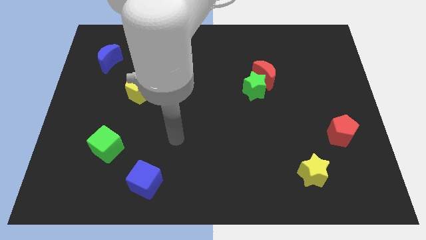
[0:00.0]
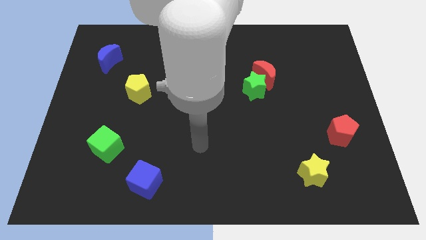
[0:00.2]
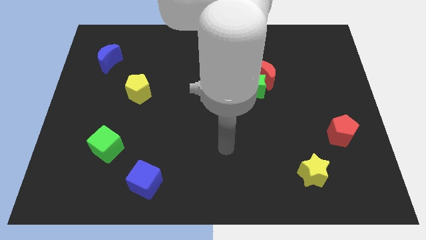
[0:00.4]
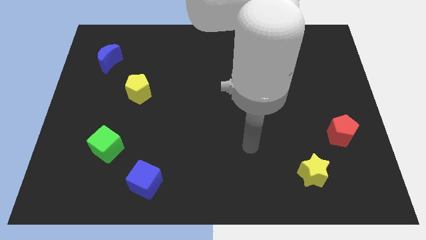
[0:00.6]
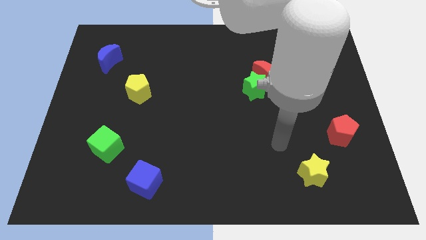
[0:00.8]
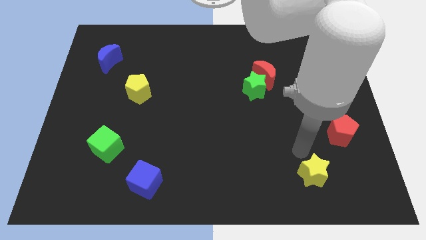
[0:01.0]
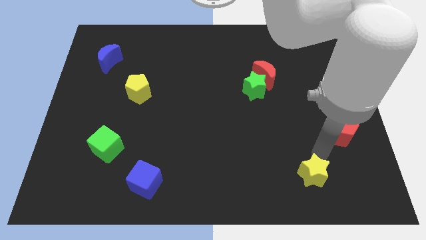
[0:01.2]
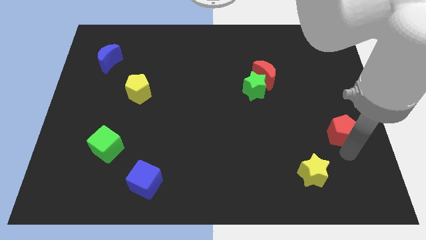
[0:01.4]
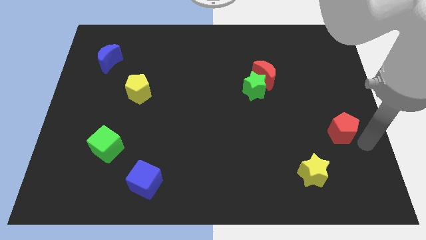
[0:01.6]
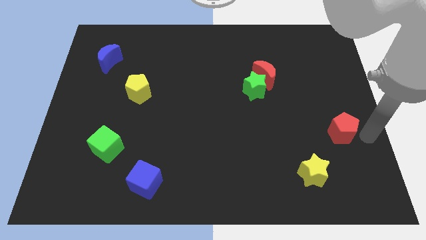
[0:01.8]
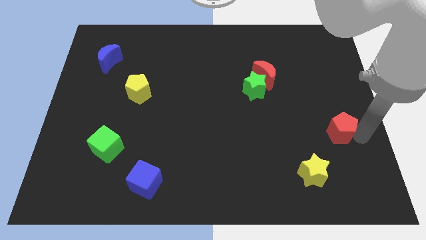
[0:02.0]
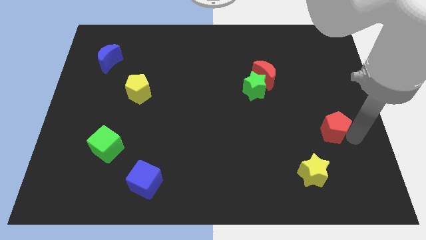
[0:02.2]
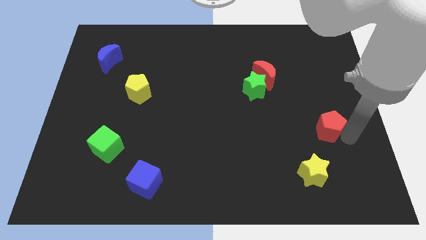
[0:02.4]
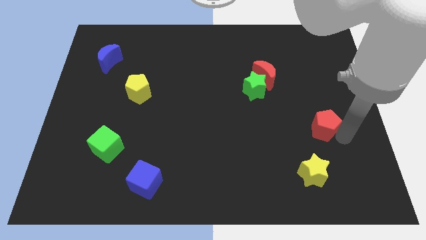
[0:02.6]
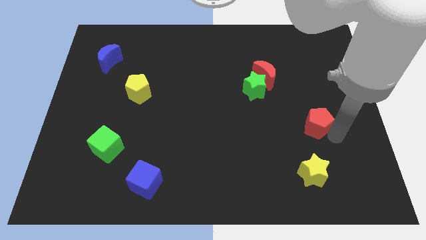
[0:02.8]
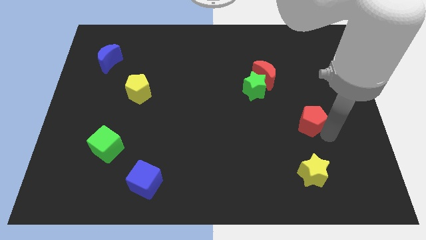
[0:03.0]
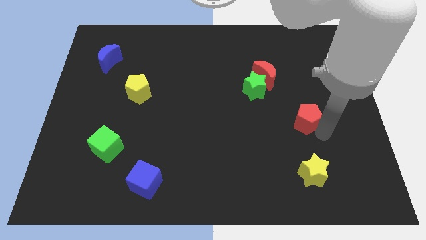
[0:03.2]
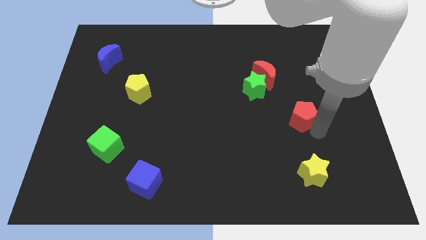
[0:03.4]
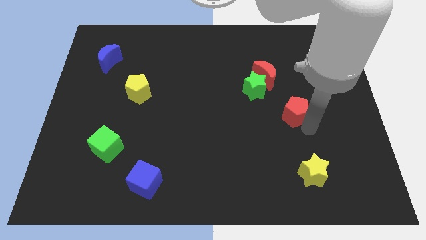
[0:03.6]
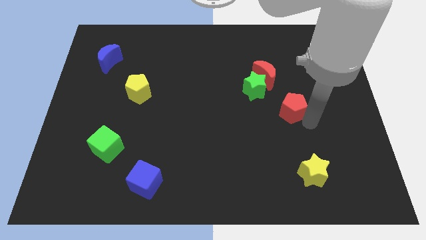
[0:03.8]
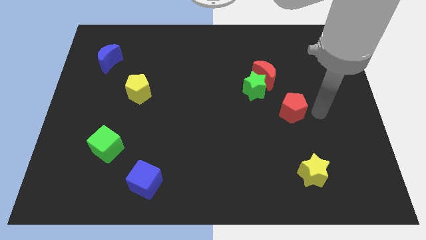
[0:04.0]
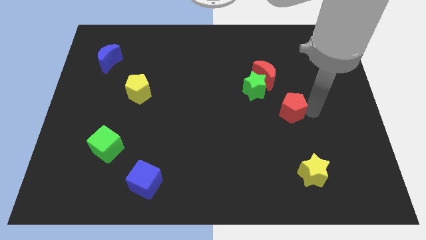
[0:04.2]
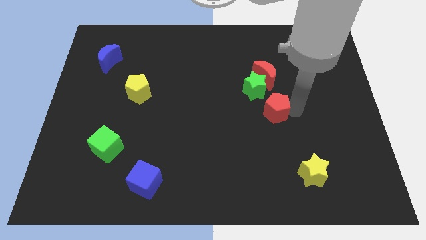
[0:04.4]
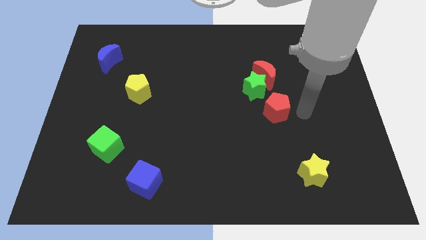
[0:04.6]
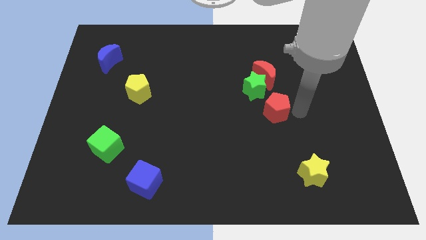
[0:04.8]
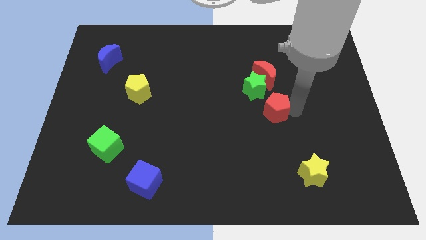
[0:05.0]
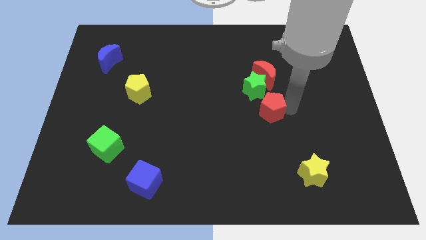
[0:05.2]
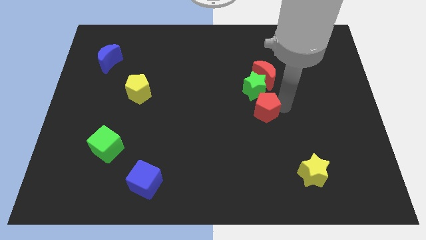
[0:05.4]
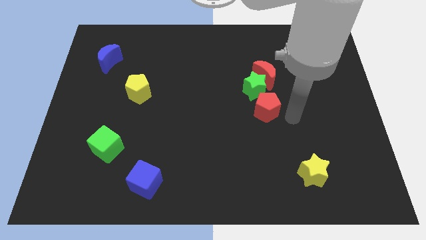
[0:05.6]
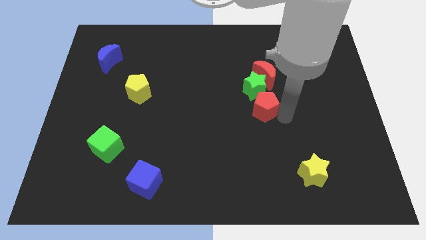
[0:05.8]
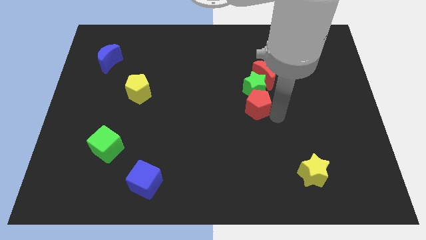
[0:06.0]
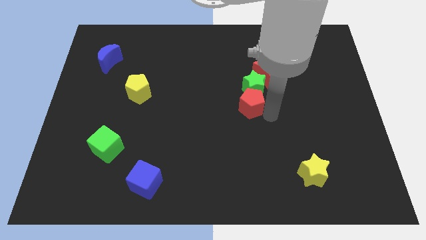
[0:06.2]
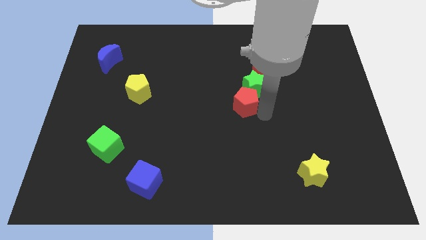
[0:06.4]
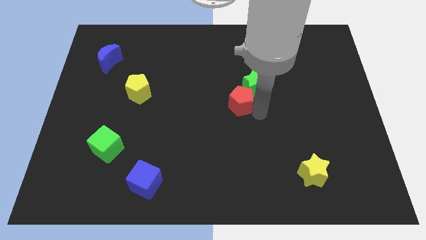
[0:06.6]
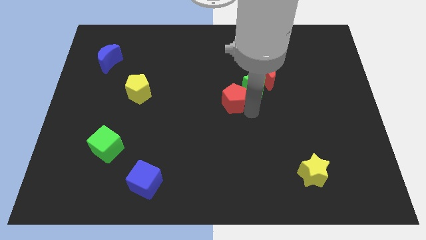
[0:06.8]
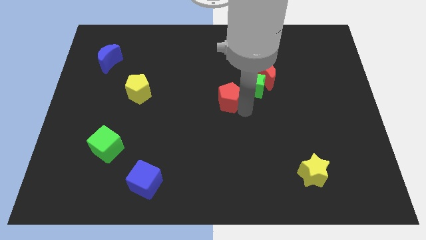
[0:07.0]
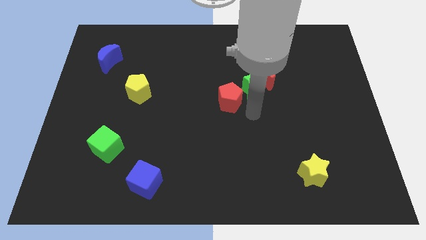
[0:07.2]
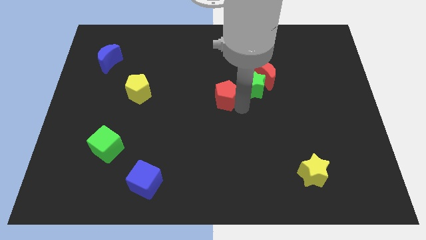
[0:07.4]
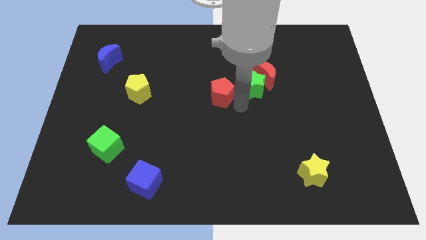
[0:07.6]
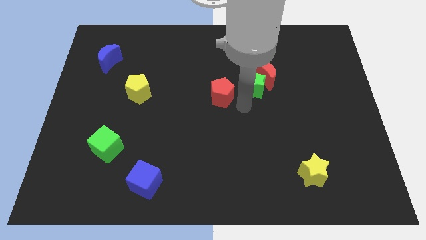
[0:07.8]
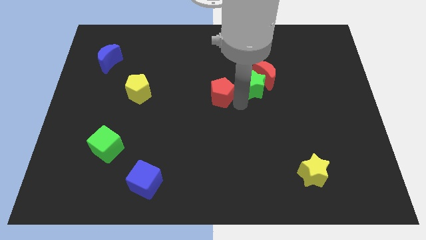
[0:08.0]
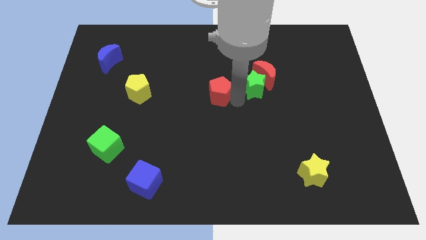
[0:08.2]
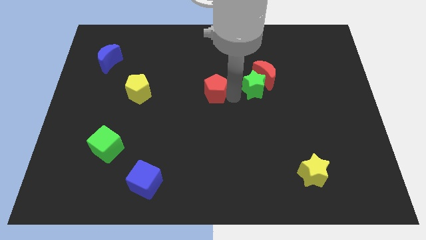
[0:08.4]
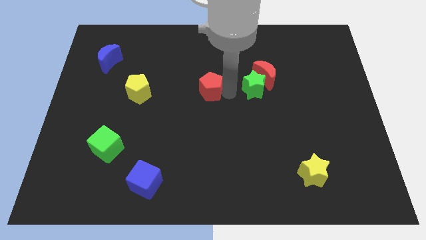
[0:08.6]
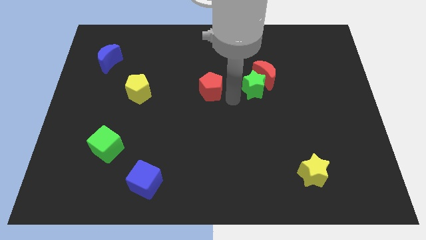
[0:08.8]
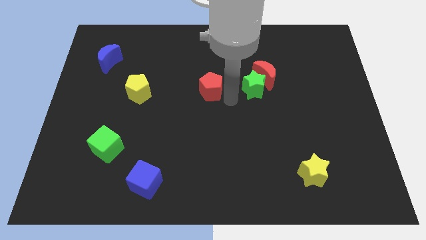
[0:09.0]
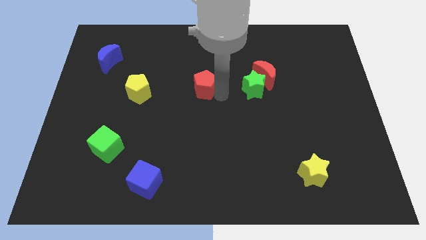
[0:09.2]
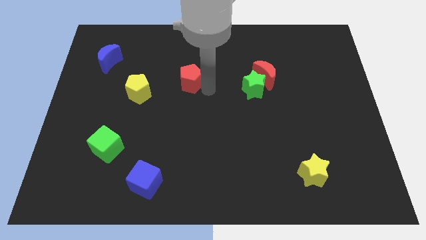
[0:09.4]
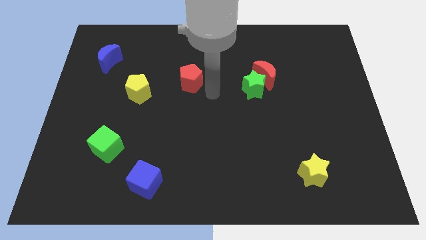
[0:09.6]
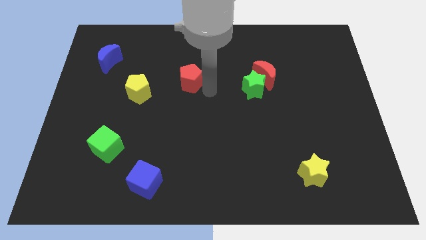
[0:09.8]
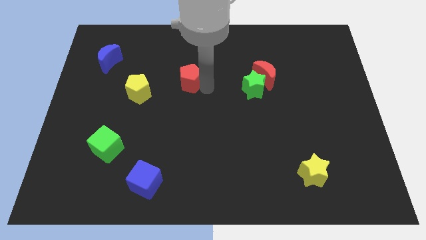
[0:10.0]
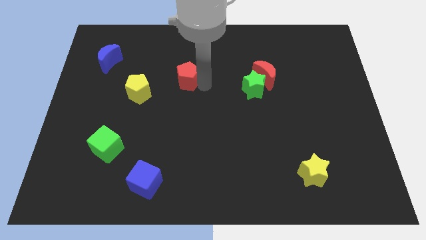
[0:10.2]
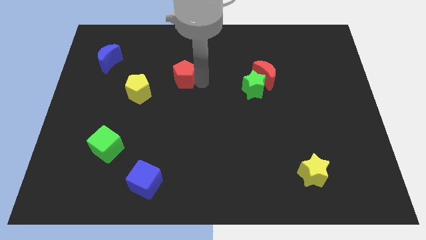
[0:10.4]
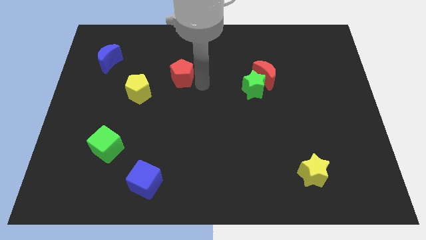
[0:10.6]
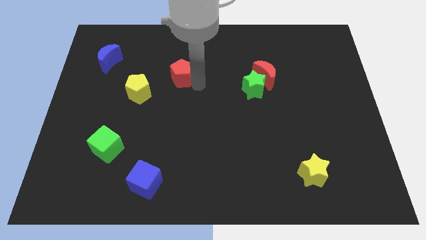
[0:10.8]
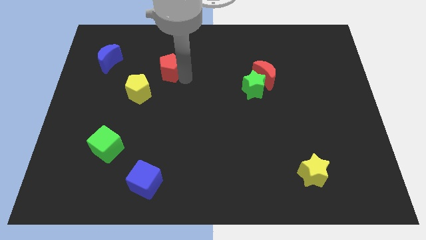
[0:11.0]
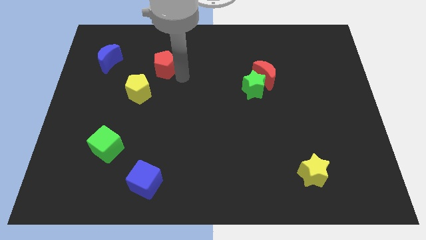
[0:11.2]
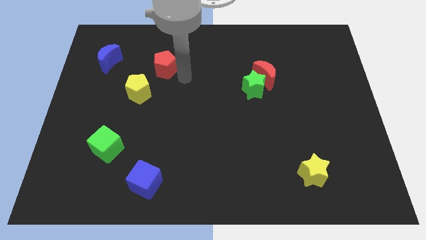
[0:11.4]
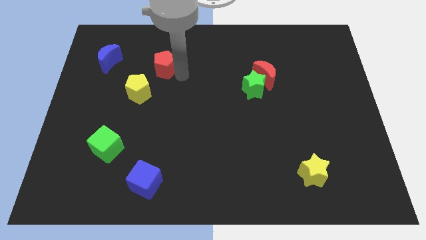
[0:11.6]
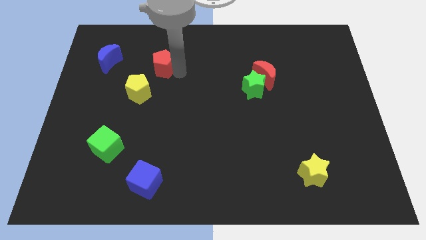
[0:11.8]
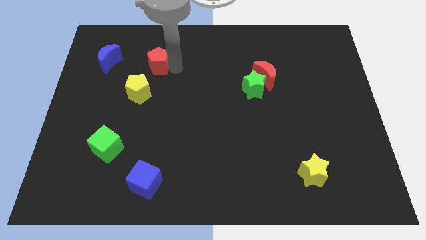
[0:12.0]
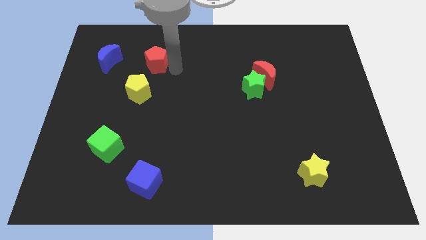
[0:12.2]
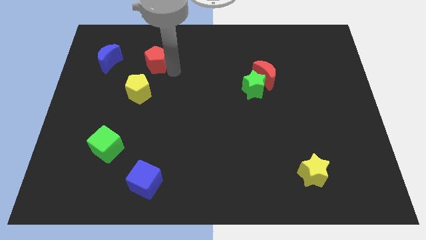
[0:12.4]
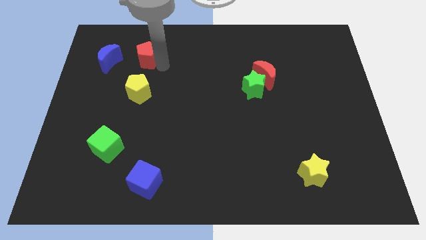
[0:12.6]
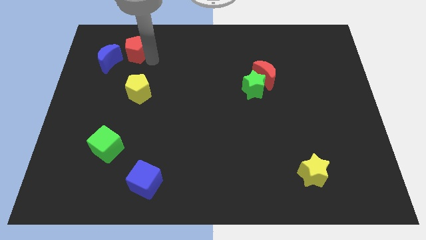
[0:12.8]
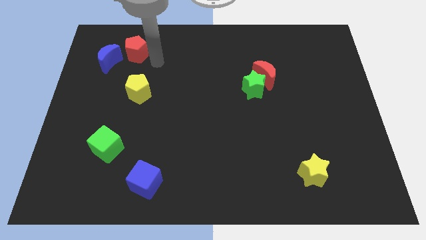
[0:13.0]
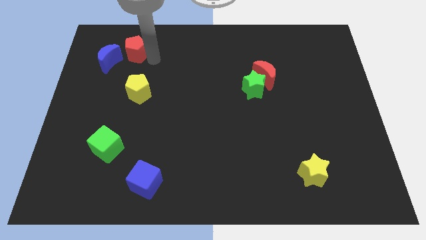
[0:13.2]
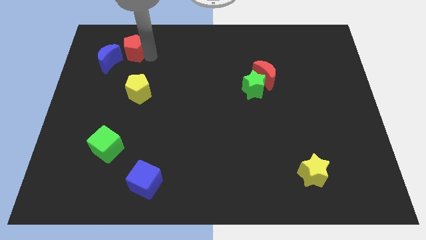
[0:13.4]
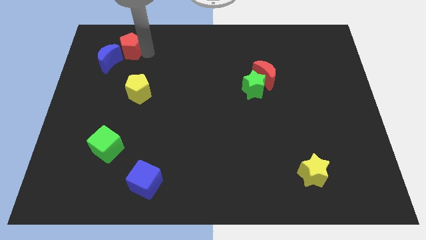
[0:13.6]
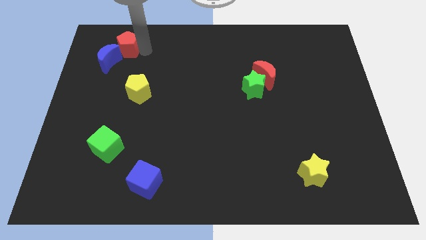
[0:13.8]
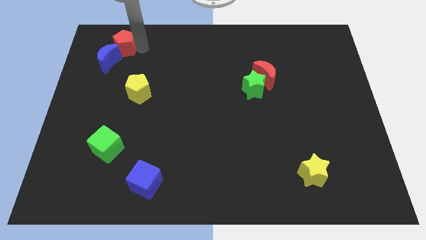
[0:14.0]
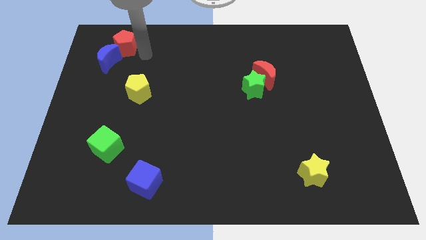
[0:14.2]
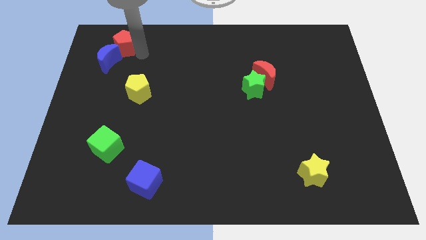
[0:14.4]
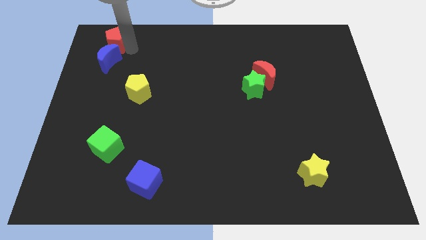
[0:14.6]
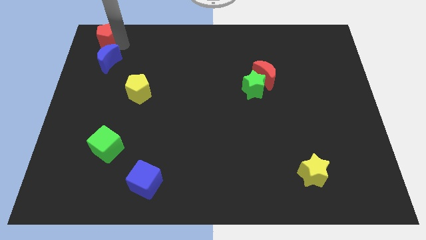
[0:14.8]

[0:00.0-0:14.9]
push the red pentagon to the top left
